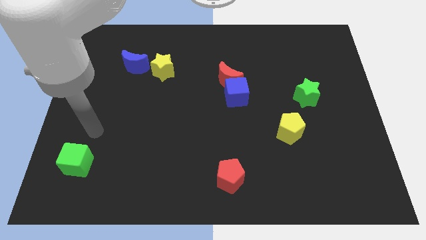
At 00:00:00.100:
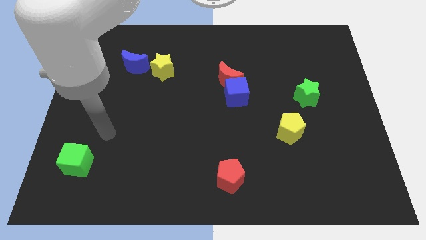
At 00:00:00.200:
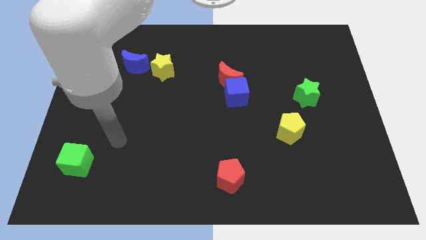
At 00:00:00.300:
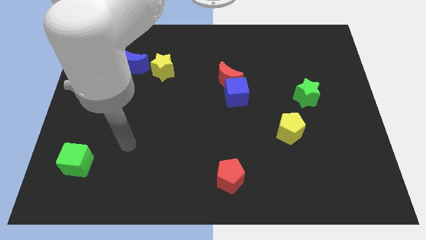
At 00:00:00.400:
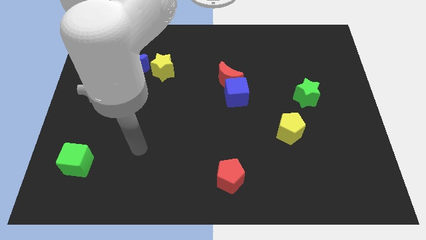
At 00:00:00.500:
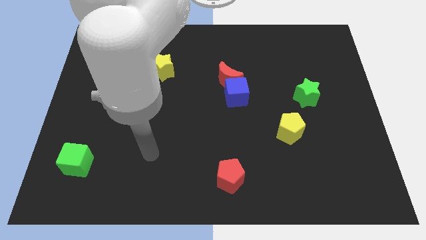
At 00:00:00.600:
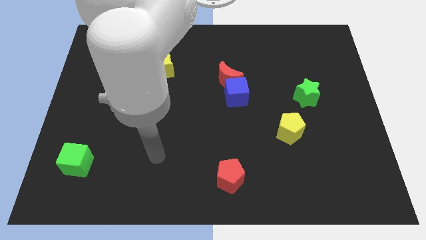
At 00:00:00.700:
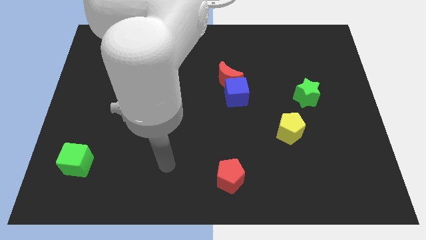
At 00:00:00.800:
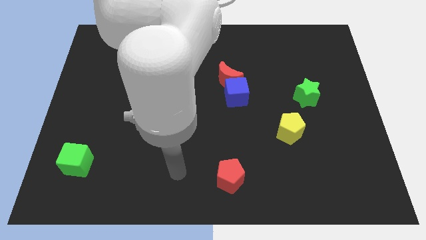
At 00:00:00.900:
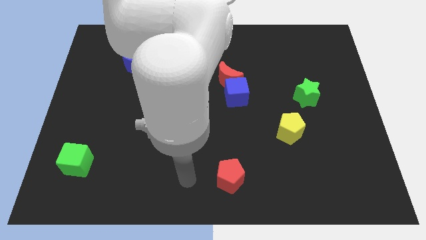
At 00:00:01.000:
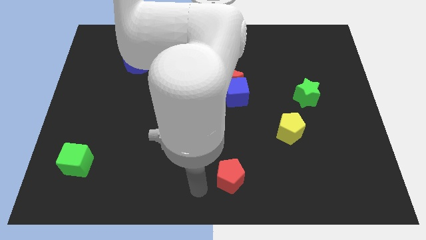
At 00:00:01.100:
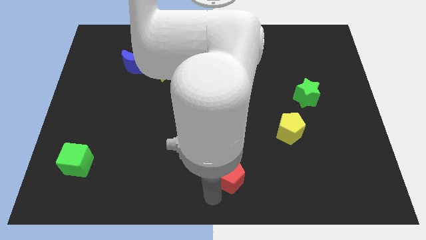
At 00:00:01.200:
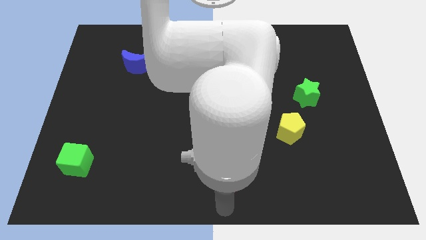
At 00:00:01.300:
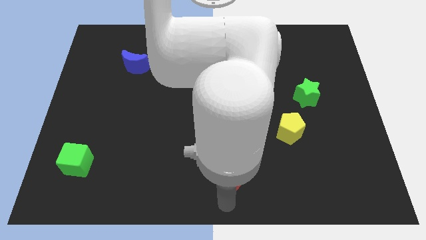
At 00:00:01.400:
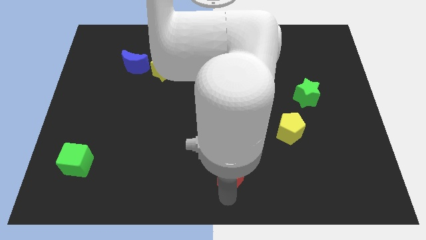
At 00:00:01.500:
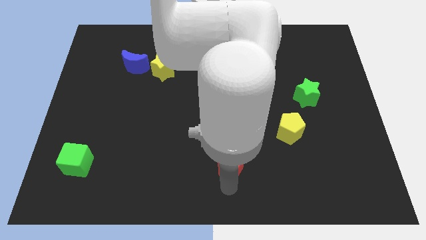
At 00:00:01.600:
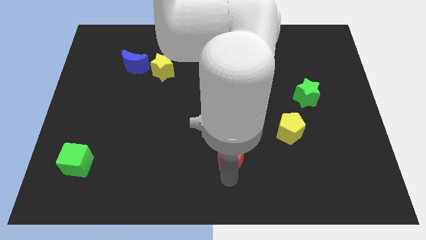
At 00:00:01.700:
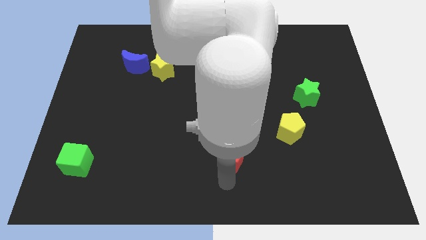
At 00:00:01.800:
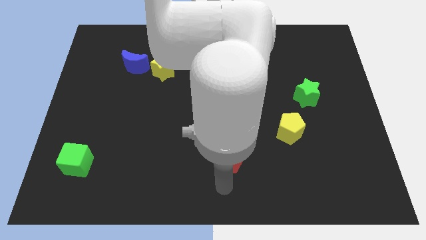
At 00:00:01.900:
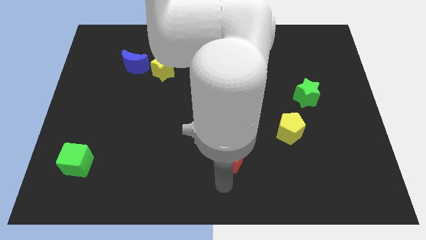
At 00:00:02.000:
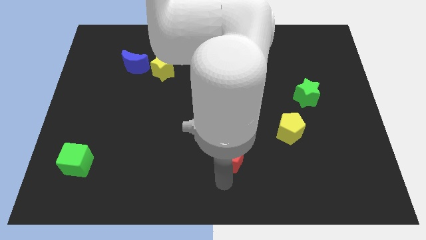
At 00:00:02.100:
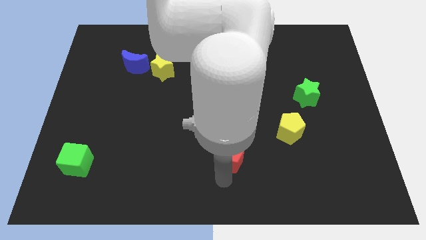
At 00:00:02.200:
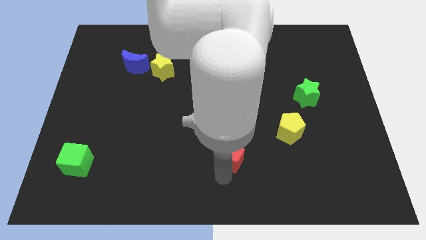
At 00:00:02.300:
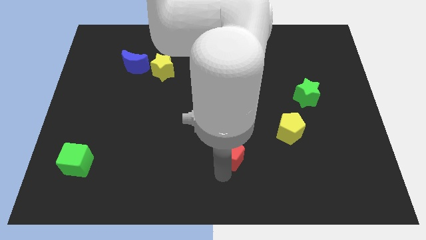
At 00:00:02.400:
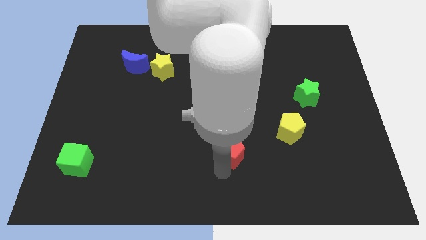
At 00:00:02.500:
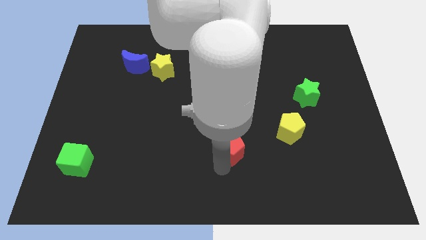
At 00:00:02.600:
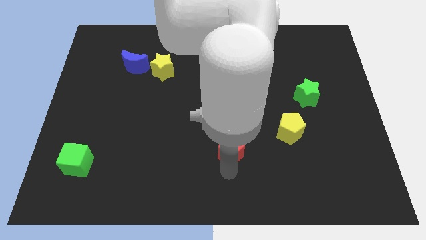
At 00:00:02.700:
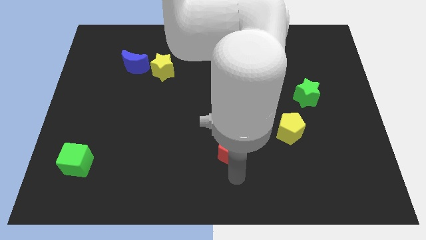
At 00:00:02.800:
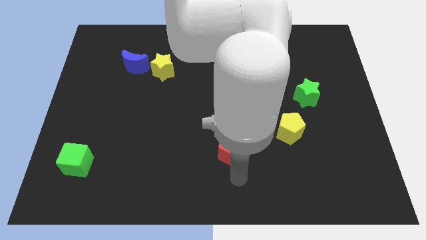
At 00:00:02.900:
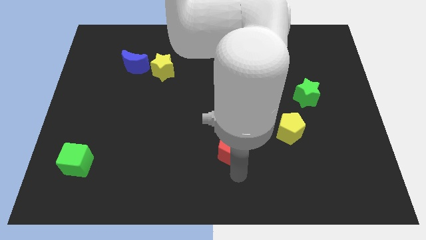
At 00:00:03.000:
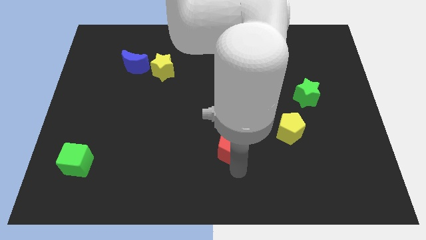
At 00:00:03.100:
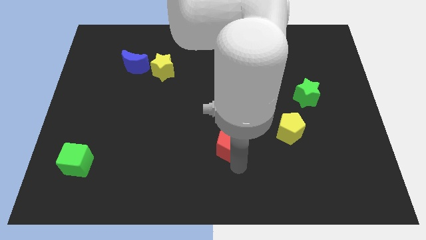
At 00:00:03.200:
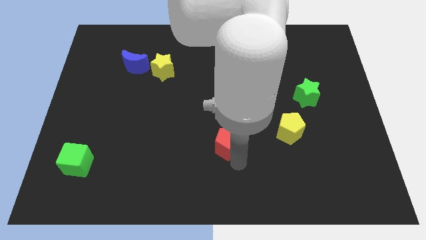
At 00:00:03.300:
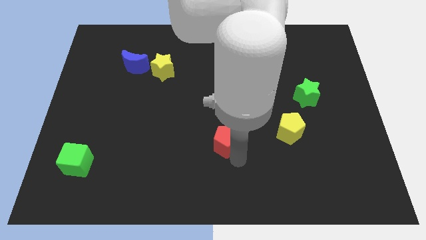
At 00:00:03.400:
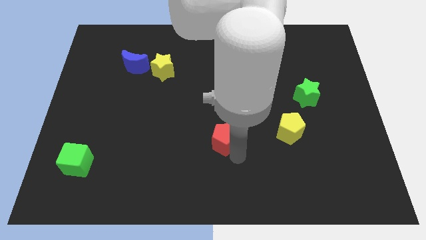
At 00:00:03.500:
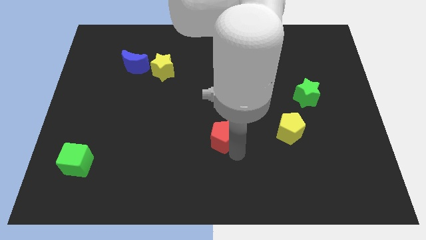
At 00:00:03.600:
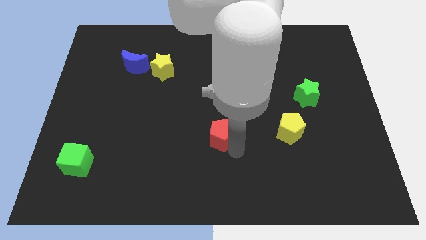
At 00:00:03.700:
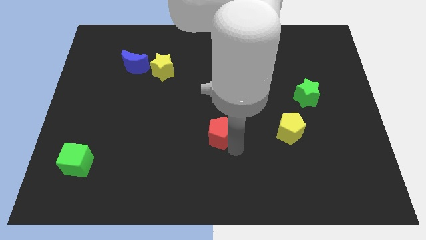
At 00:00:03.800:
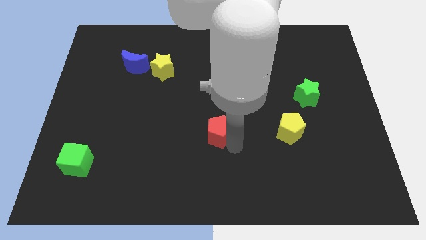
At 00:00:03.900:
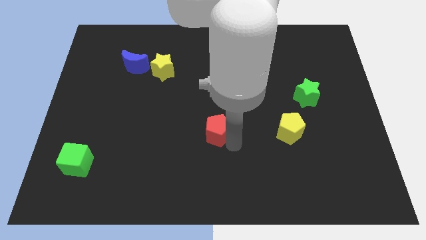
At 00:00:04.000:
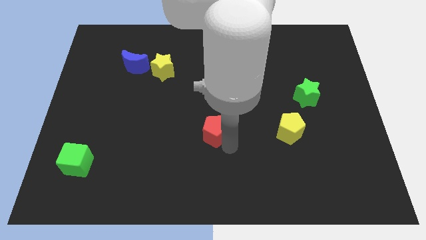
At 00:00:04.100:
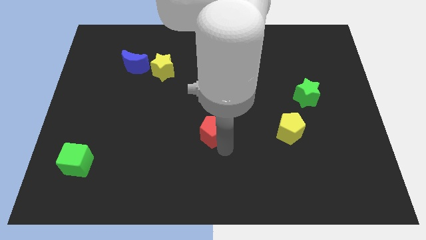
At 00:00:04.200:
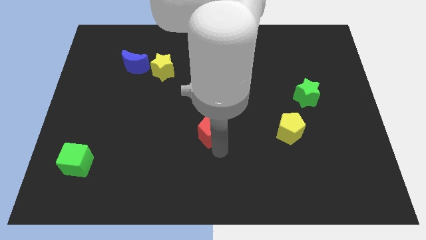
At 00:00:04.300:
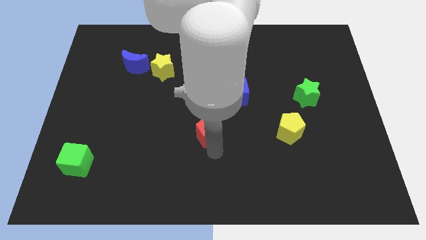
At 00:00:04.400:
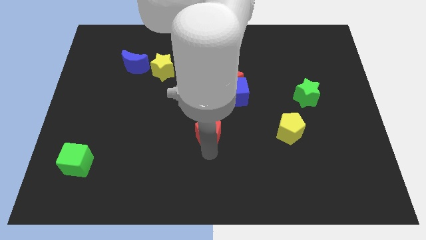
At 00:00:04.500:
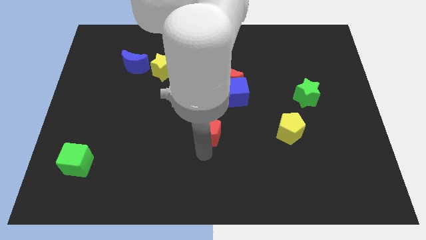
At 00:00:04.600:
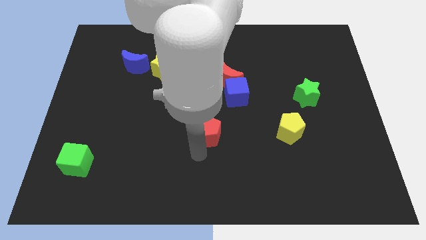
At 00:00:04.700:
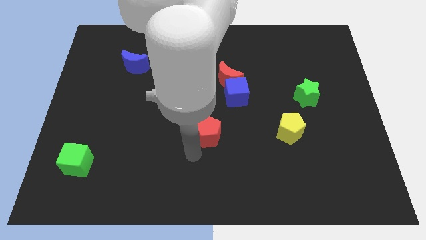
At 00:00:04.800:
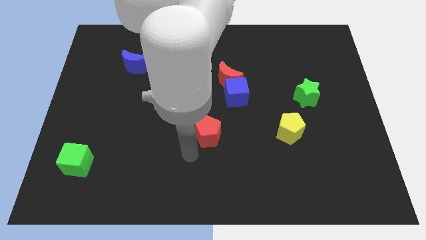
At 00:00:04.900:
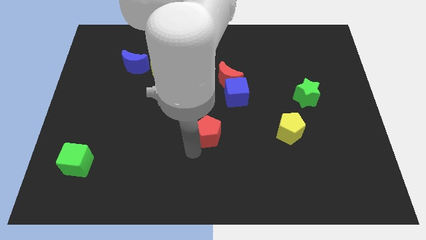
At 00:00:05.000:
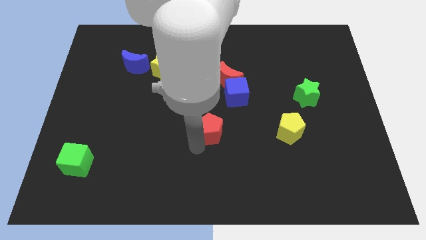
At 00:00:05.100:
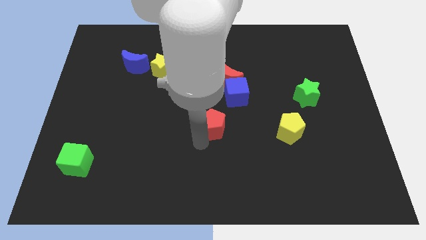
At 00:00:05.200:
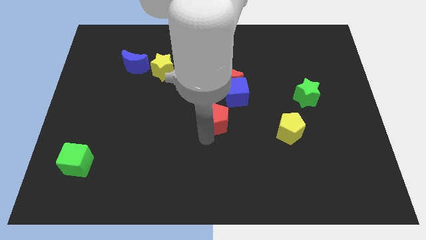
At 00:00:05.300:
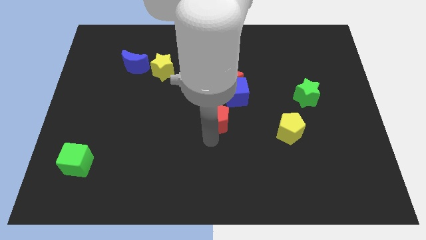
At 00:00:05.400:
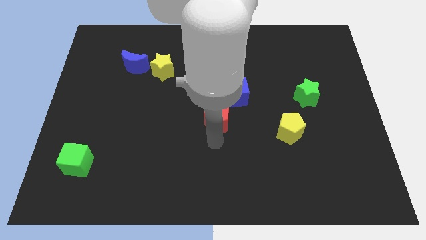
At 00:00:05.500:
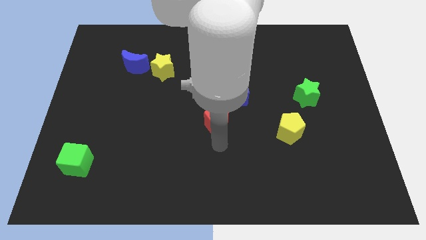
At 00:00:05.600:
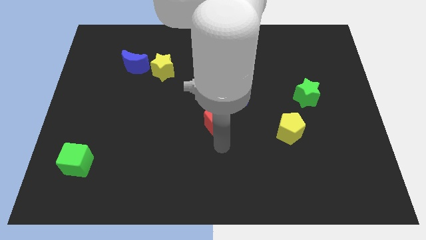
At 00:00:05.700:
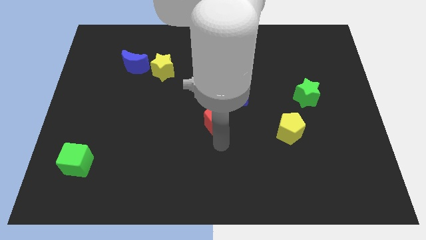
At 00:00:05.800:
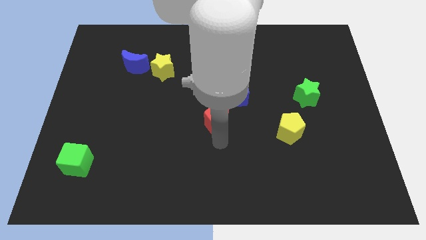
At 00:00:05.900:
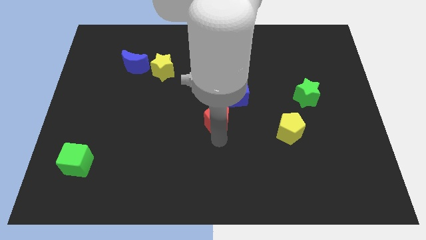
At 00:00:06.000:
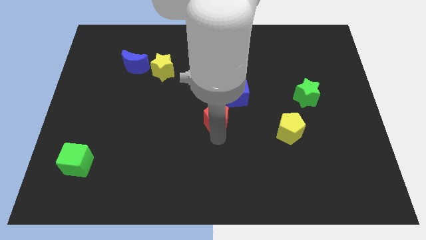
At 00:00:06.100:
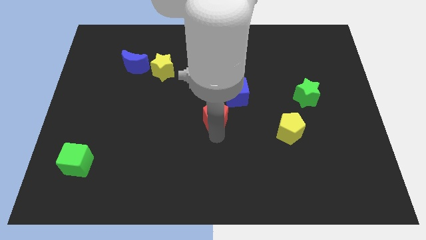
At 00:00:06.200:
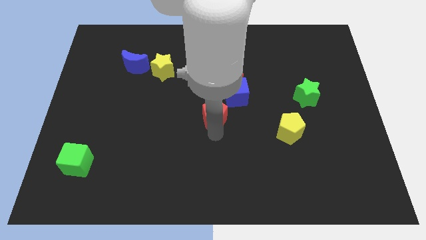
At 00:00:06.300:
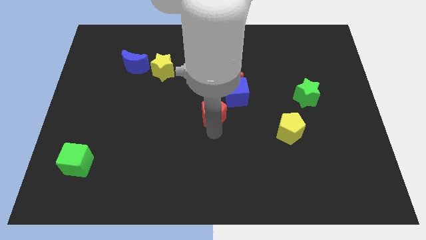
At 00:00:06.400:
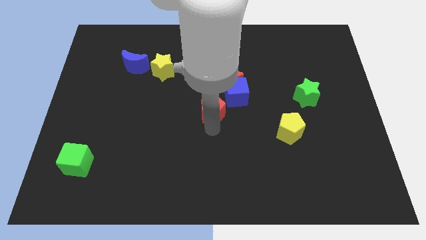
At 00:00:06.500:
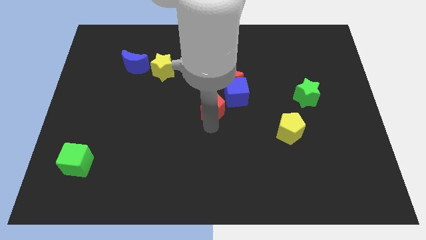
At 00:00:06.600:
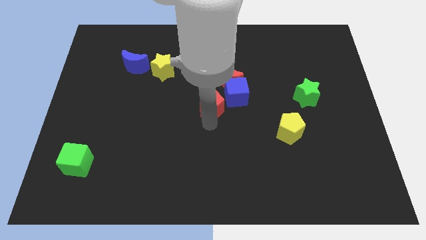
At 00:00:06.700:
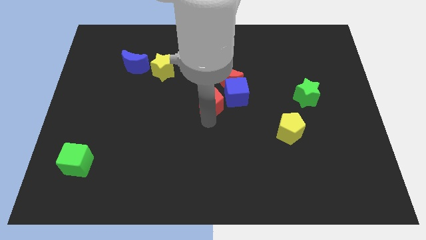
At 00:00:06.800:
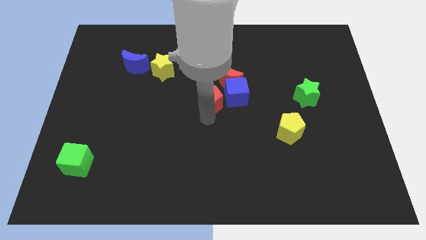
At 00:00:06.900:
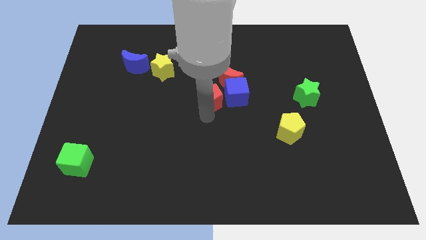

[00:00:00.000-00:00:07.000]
slide the red pentagon upwards

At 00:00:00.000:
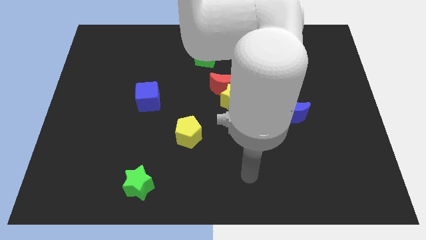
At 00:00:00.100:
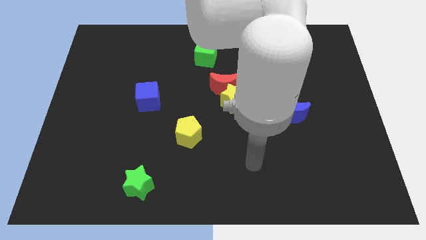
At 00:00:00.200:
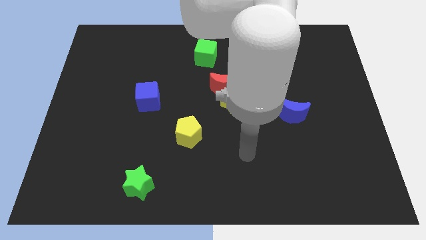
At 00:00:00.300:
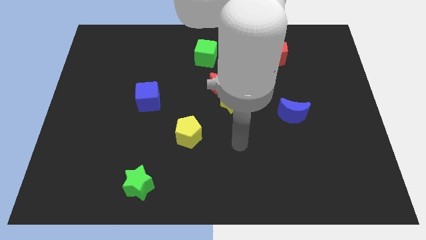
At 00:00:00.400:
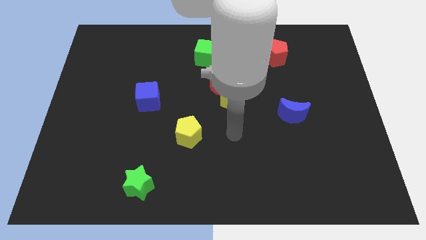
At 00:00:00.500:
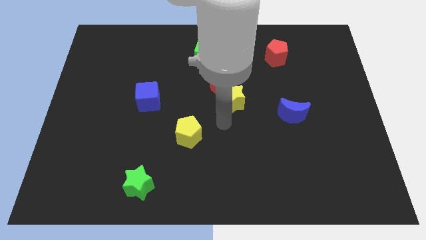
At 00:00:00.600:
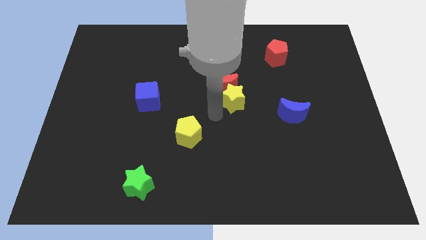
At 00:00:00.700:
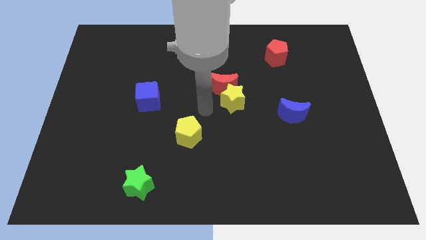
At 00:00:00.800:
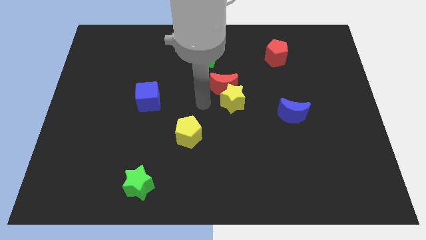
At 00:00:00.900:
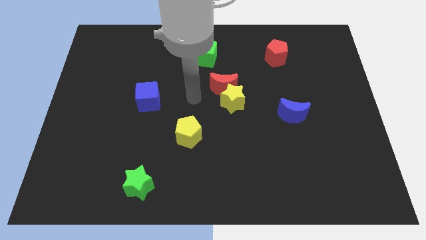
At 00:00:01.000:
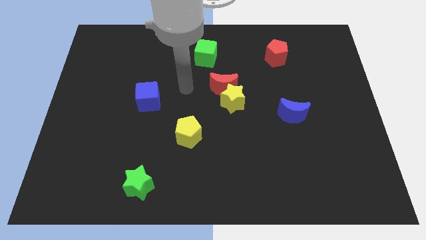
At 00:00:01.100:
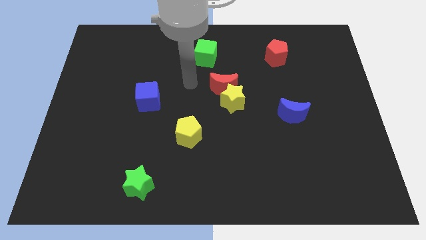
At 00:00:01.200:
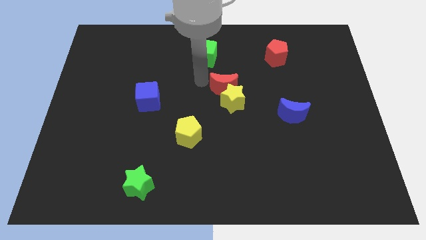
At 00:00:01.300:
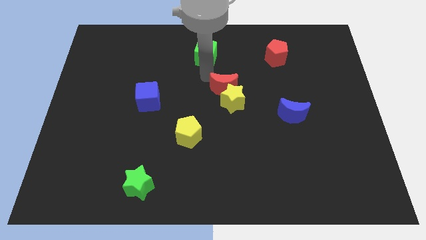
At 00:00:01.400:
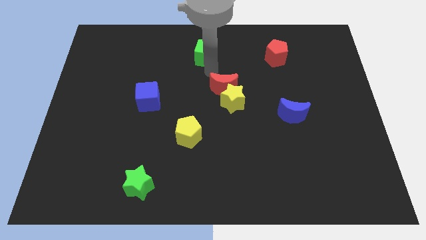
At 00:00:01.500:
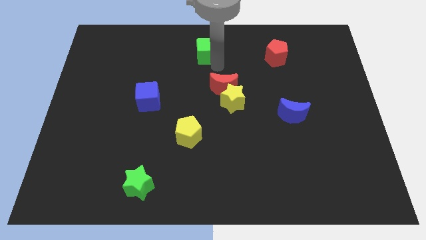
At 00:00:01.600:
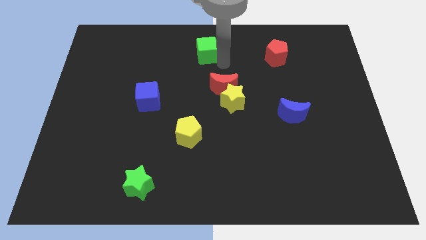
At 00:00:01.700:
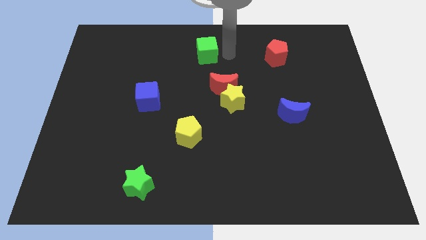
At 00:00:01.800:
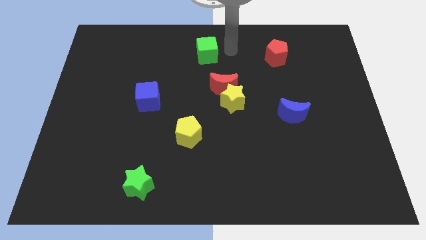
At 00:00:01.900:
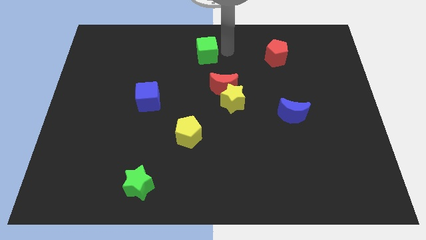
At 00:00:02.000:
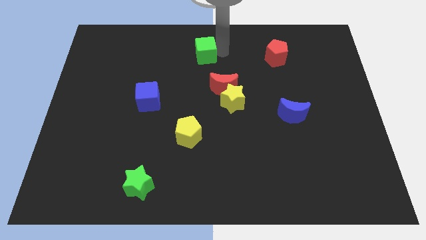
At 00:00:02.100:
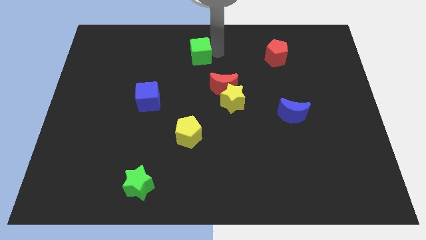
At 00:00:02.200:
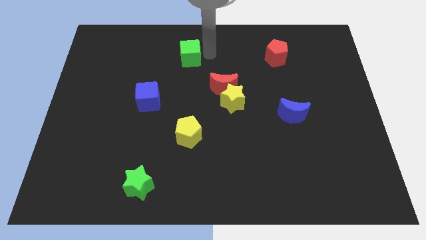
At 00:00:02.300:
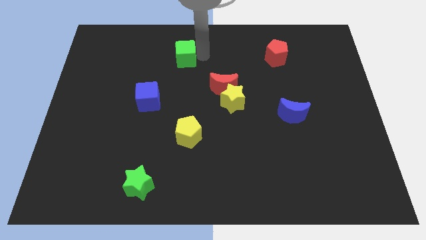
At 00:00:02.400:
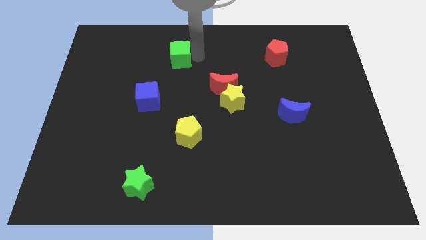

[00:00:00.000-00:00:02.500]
slide the green cube a little bit left
